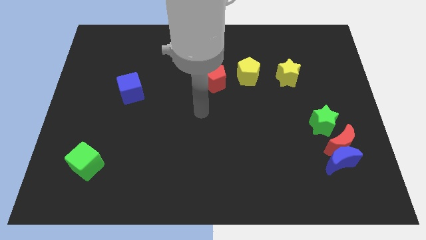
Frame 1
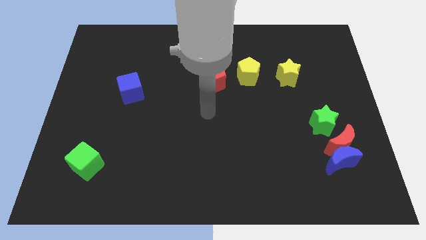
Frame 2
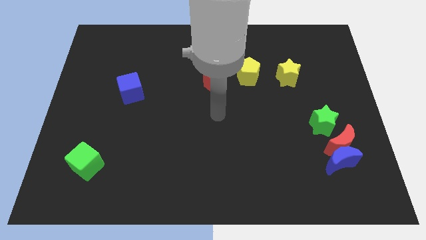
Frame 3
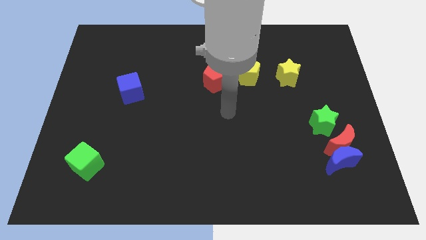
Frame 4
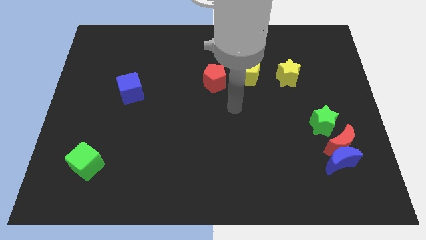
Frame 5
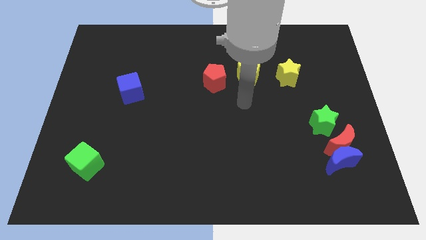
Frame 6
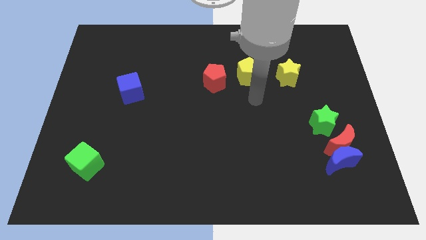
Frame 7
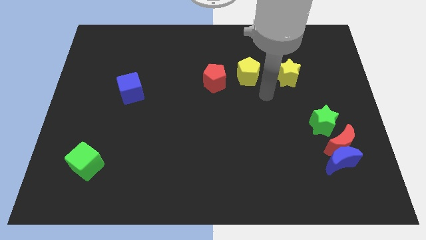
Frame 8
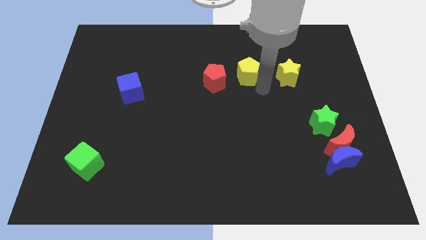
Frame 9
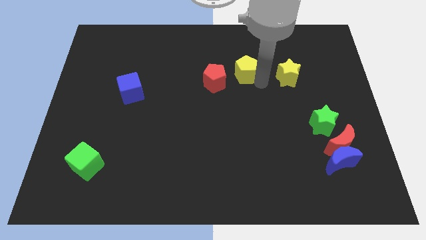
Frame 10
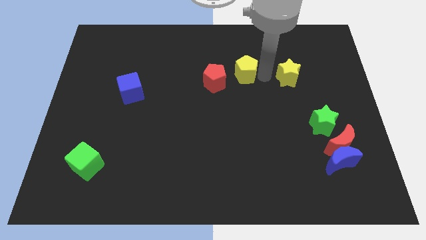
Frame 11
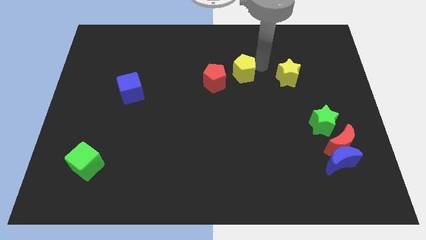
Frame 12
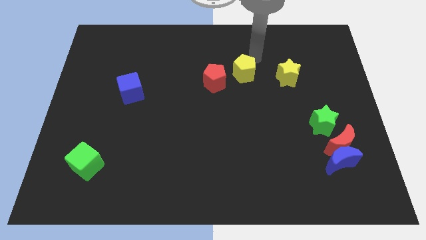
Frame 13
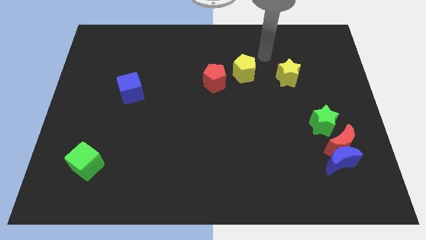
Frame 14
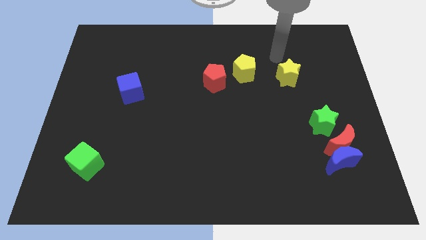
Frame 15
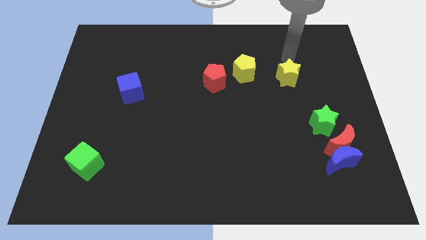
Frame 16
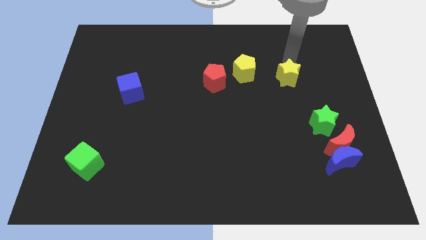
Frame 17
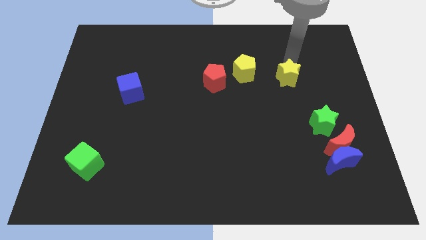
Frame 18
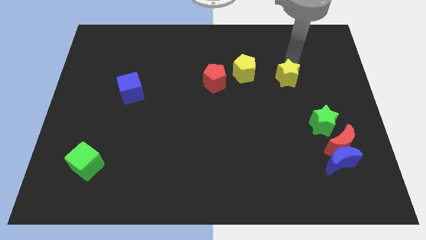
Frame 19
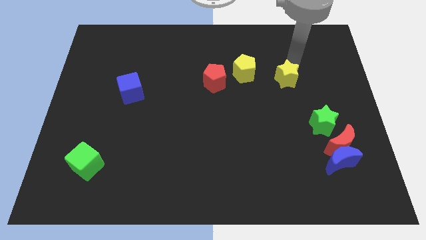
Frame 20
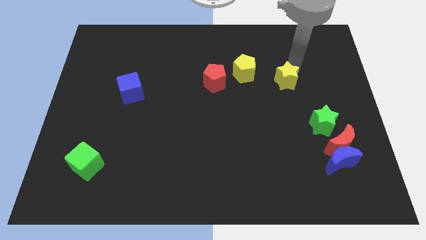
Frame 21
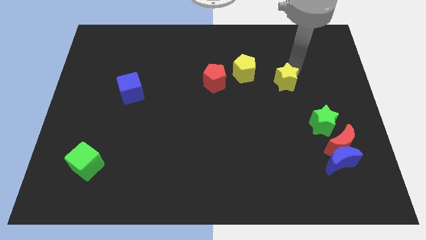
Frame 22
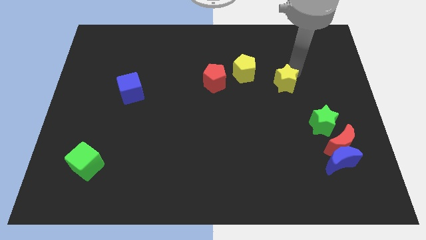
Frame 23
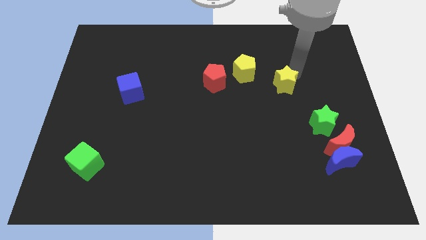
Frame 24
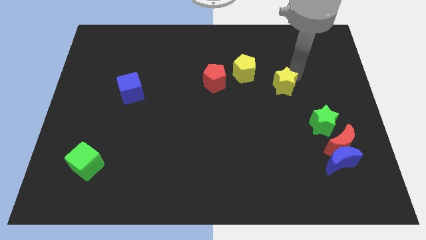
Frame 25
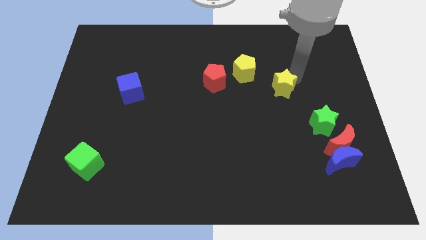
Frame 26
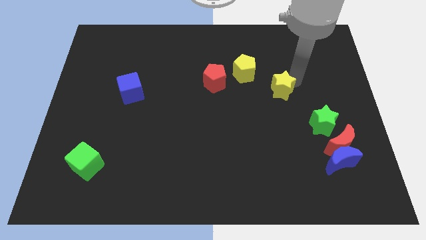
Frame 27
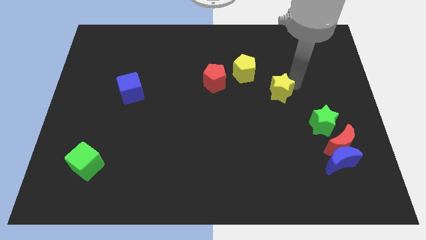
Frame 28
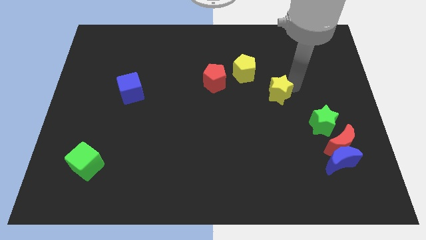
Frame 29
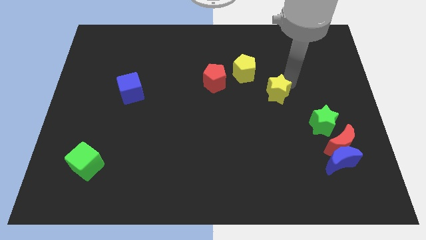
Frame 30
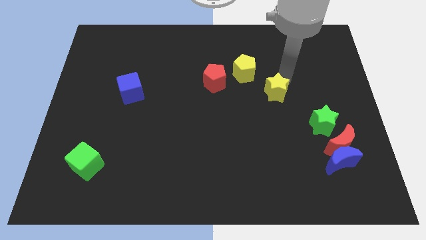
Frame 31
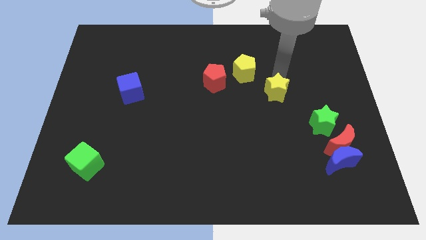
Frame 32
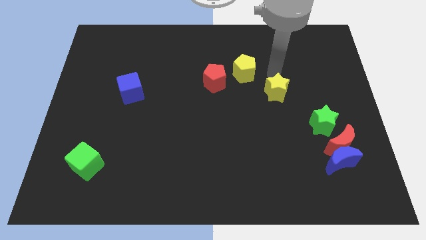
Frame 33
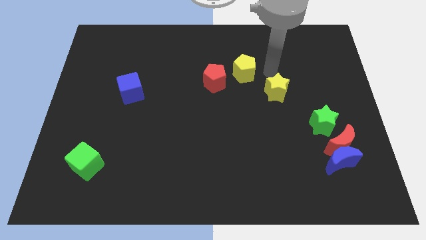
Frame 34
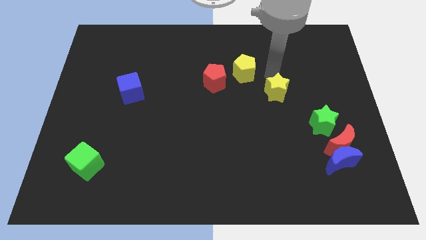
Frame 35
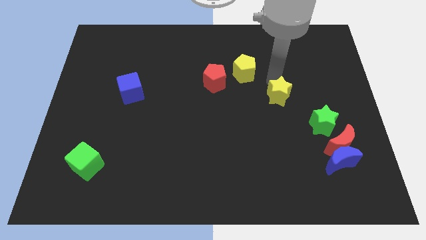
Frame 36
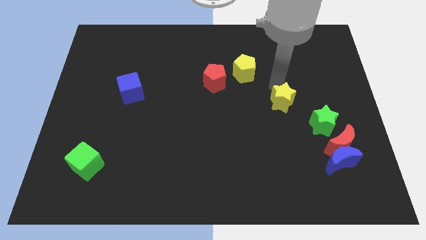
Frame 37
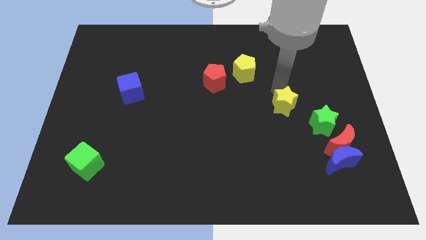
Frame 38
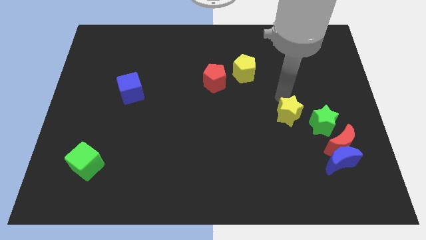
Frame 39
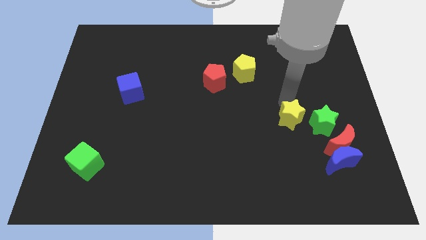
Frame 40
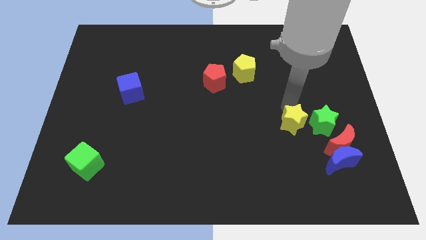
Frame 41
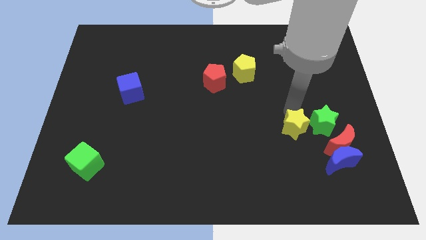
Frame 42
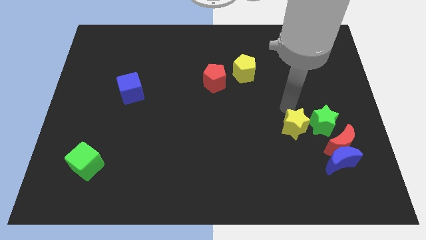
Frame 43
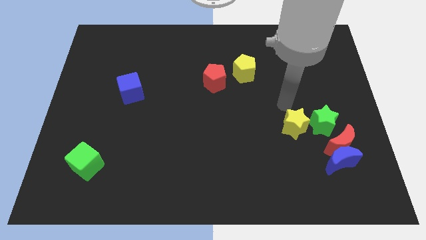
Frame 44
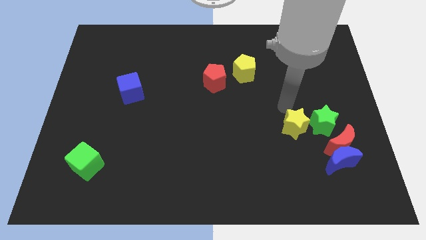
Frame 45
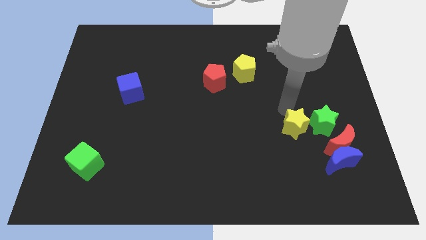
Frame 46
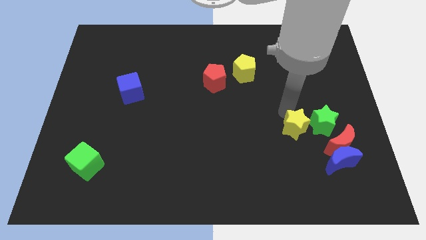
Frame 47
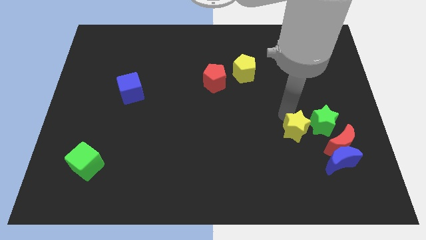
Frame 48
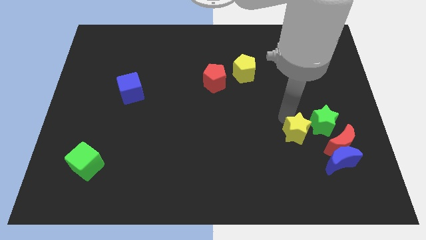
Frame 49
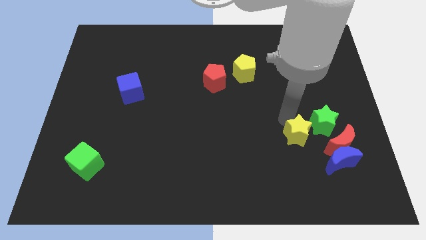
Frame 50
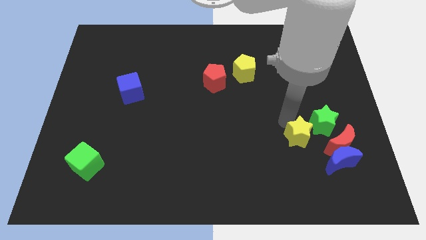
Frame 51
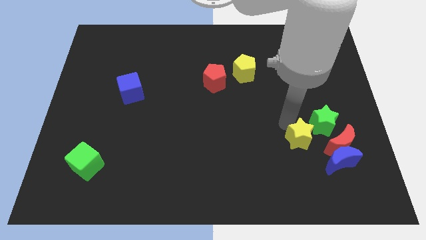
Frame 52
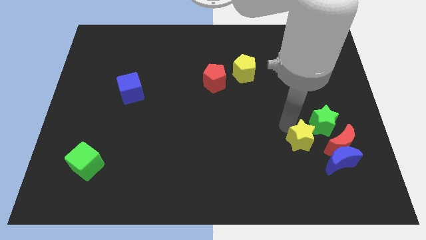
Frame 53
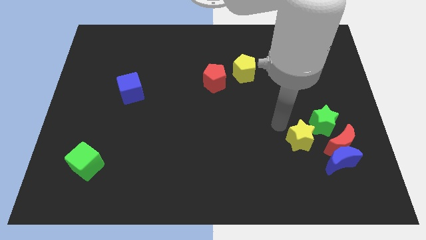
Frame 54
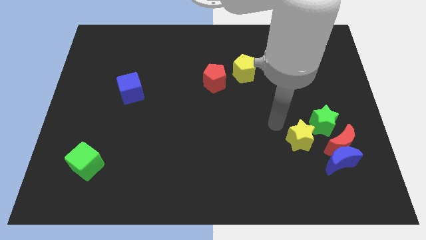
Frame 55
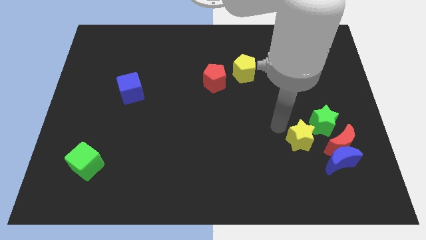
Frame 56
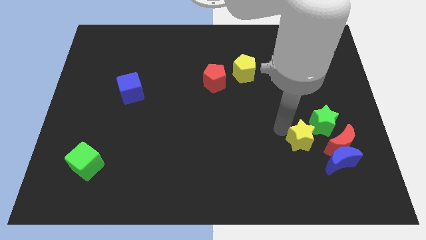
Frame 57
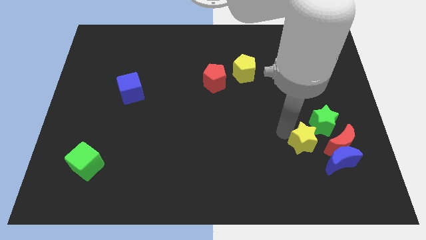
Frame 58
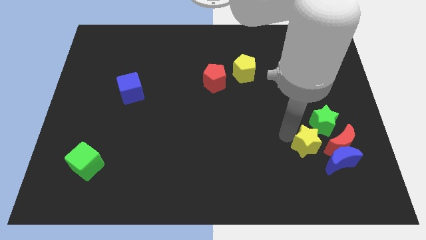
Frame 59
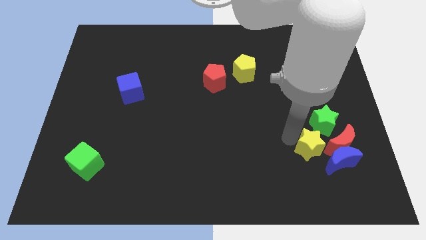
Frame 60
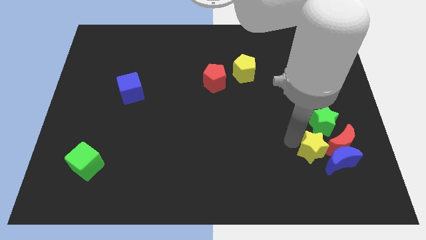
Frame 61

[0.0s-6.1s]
push the yellow star towards the blue moon

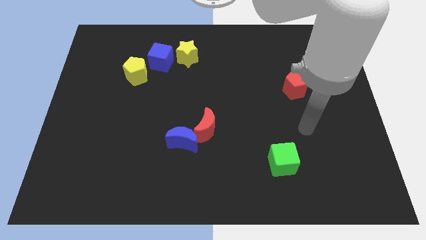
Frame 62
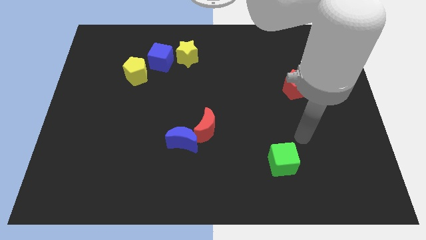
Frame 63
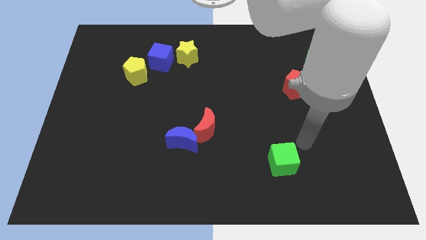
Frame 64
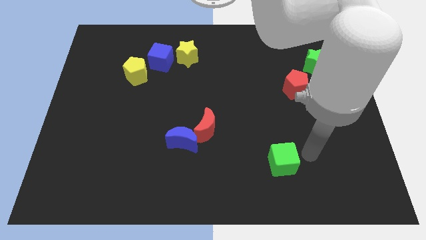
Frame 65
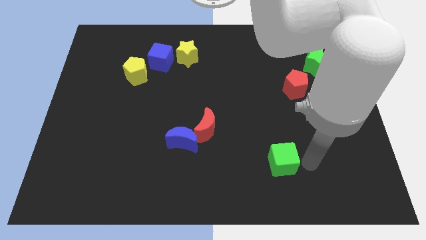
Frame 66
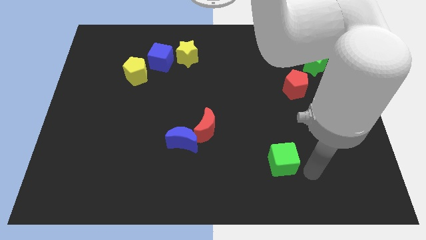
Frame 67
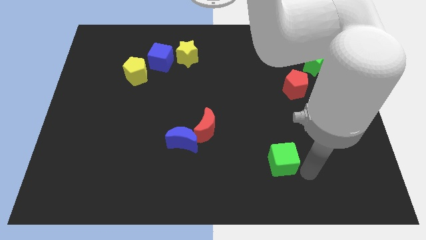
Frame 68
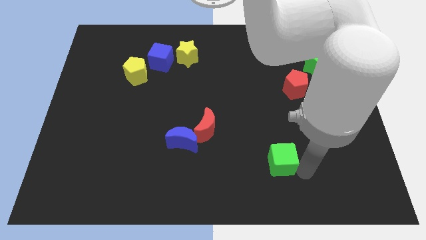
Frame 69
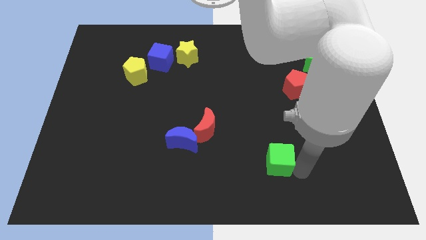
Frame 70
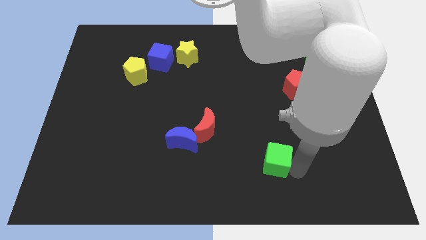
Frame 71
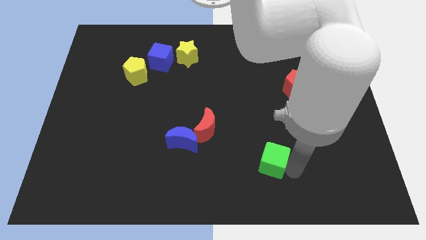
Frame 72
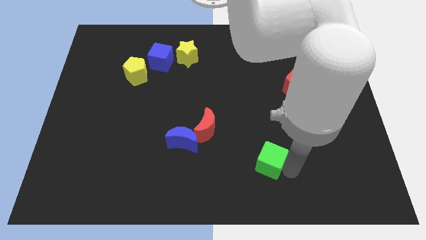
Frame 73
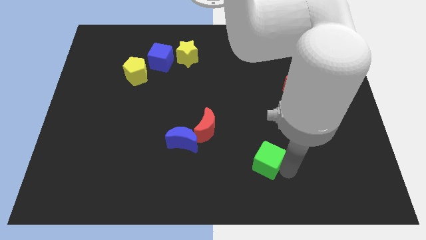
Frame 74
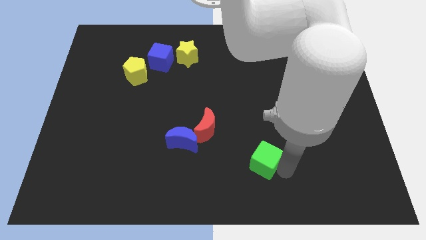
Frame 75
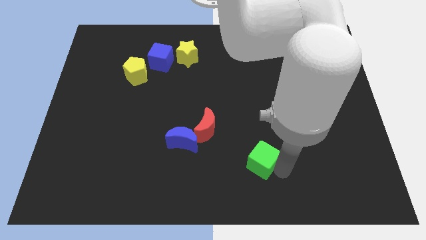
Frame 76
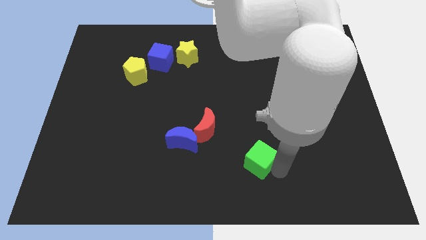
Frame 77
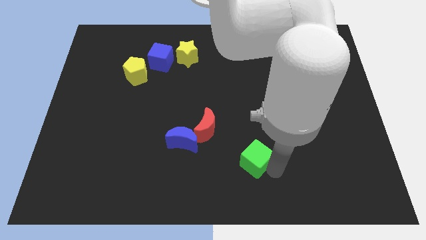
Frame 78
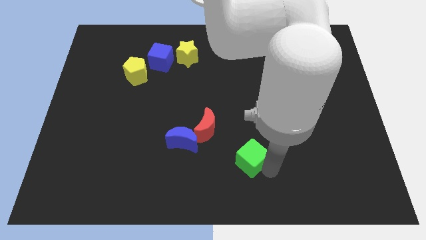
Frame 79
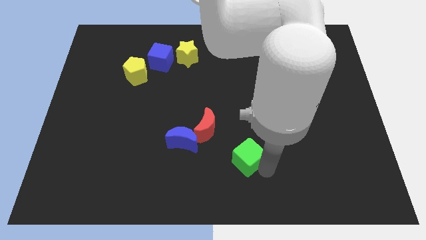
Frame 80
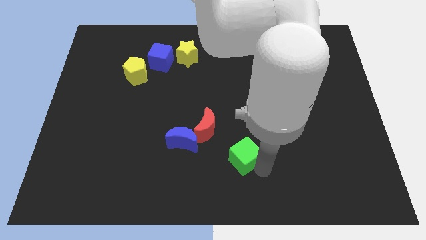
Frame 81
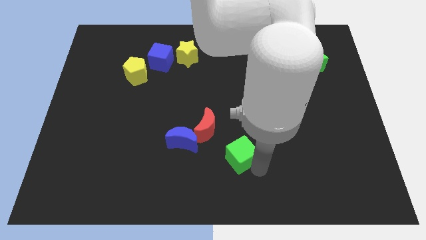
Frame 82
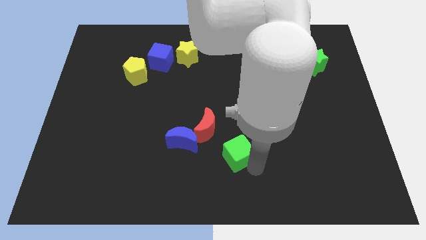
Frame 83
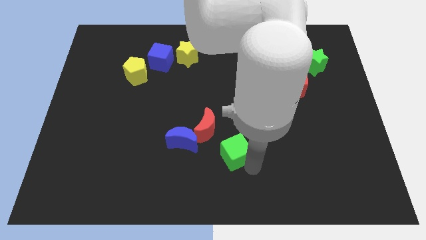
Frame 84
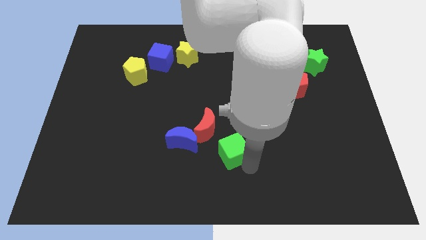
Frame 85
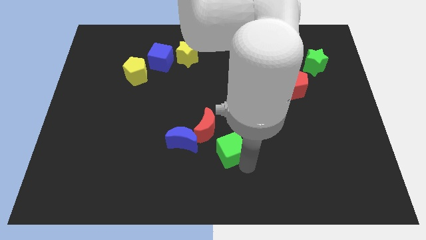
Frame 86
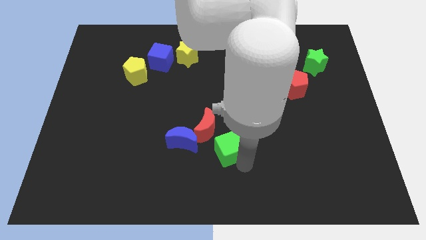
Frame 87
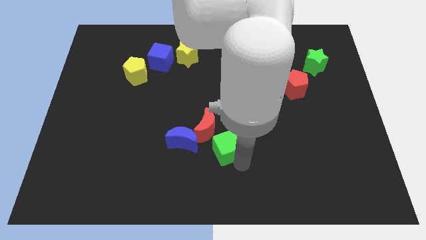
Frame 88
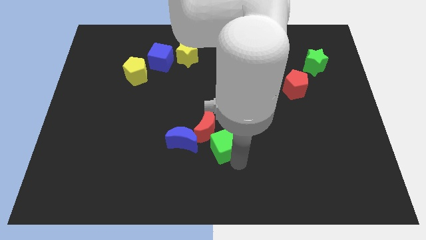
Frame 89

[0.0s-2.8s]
move the green cube to the red moon
